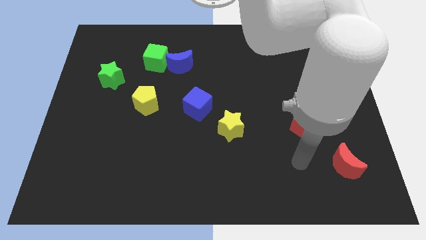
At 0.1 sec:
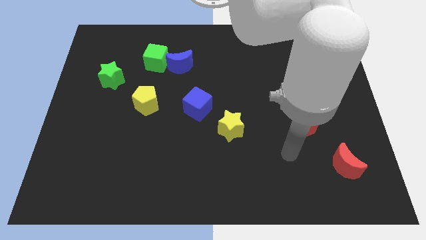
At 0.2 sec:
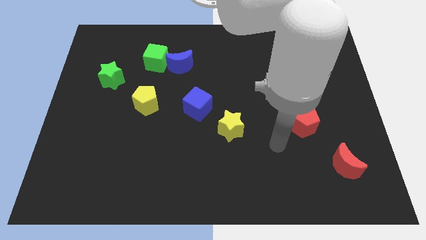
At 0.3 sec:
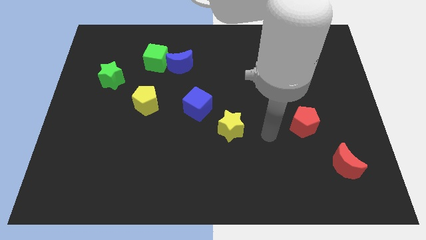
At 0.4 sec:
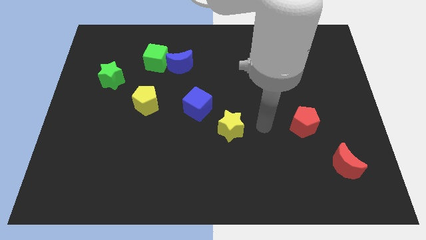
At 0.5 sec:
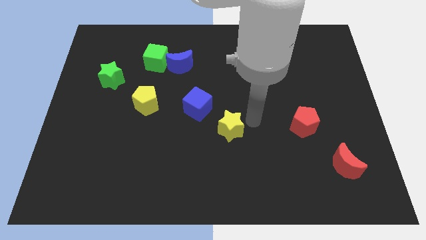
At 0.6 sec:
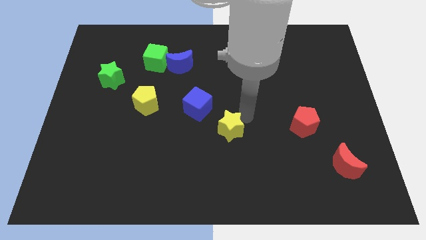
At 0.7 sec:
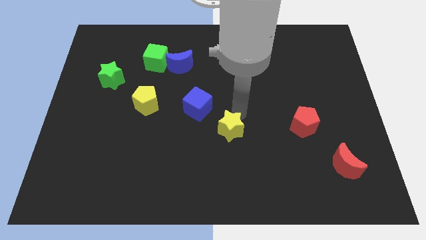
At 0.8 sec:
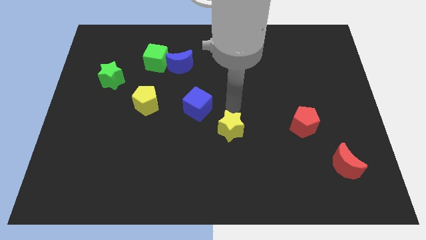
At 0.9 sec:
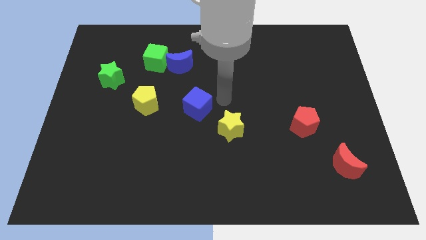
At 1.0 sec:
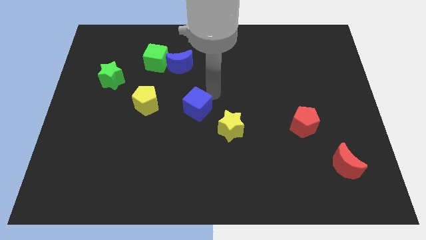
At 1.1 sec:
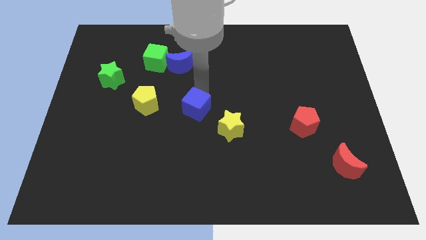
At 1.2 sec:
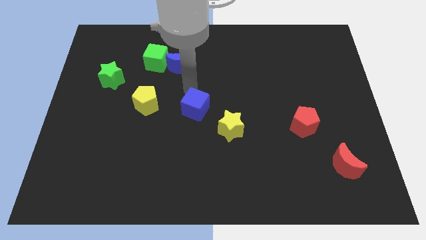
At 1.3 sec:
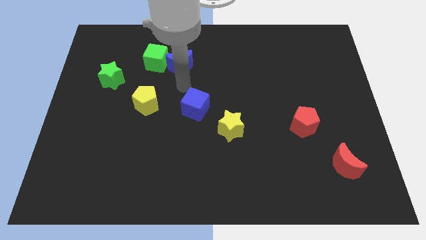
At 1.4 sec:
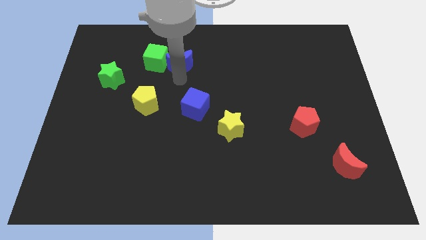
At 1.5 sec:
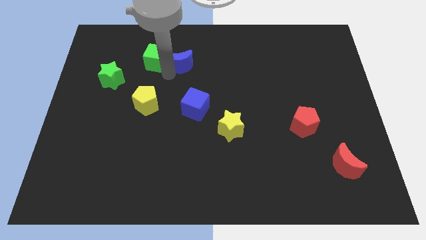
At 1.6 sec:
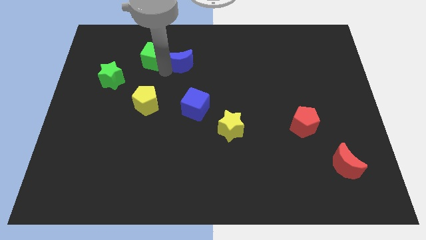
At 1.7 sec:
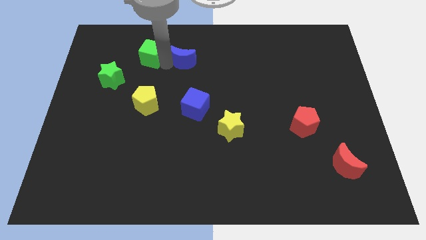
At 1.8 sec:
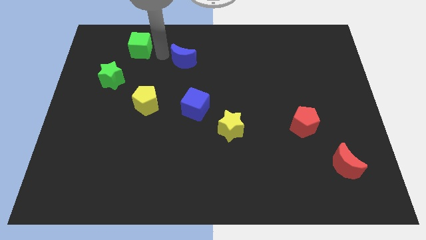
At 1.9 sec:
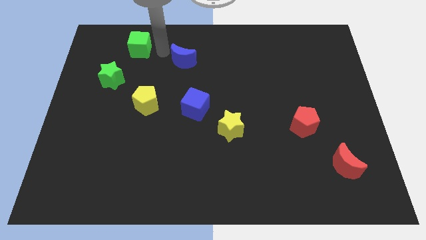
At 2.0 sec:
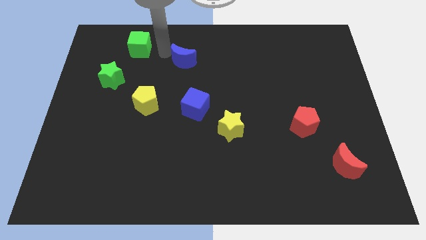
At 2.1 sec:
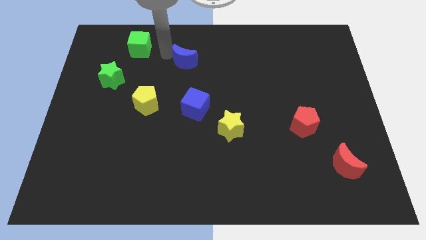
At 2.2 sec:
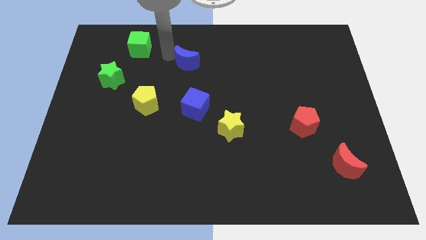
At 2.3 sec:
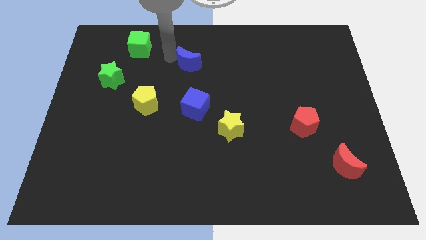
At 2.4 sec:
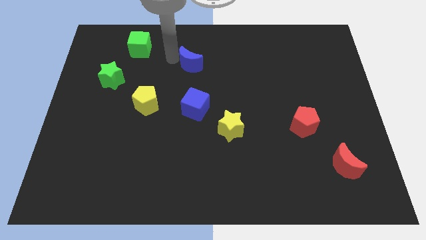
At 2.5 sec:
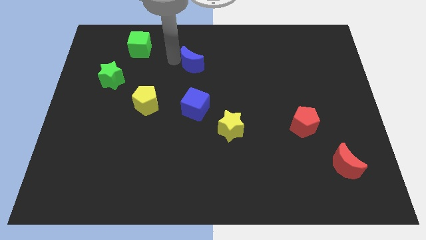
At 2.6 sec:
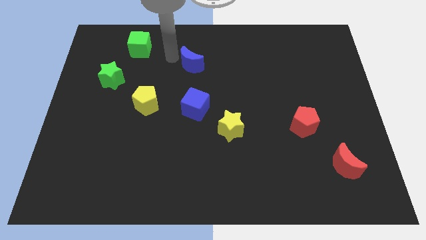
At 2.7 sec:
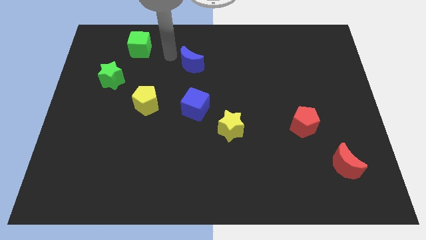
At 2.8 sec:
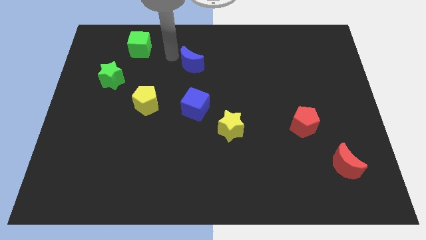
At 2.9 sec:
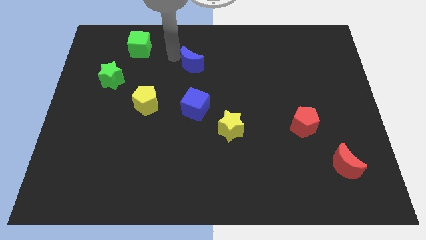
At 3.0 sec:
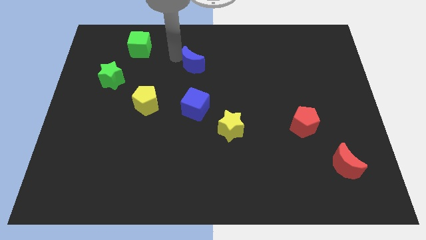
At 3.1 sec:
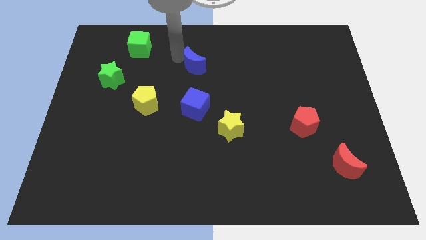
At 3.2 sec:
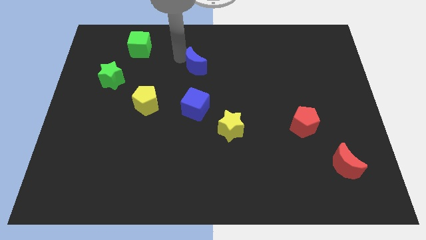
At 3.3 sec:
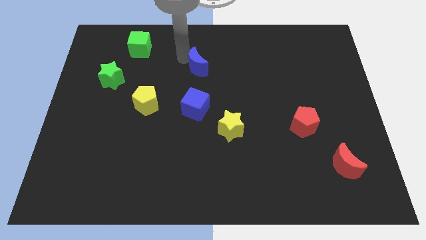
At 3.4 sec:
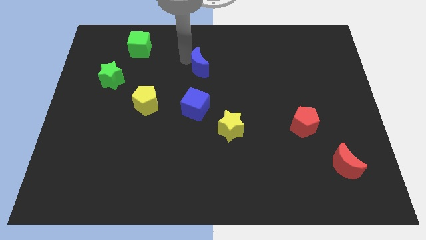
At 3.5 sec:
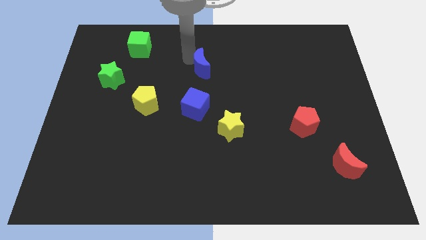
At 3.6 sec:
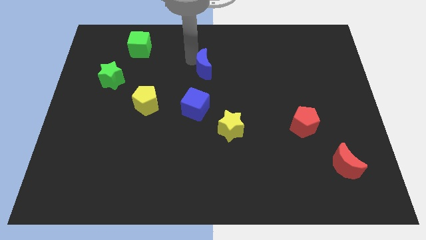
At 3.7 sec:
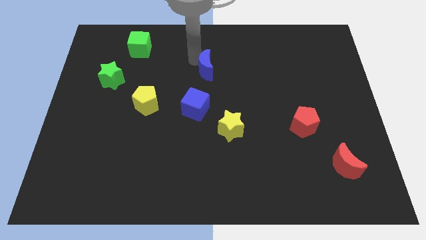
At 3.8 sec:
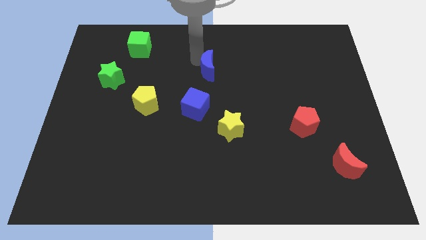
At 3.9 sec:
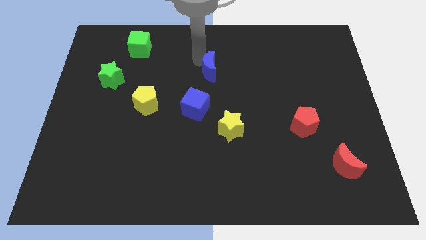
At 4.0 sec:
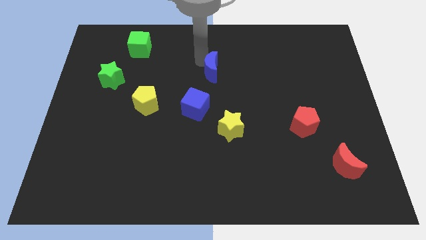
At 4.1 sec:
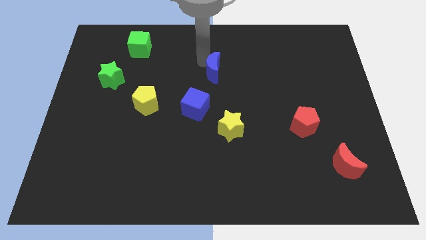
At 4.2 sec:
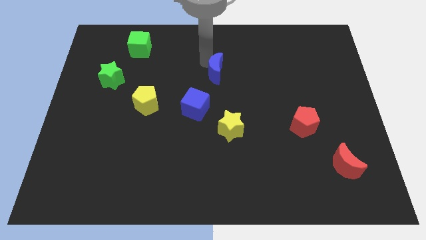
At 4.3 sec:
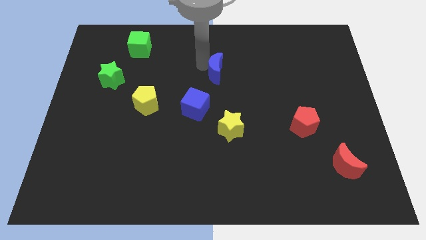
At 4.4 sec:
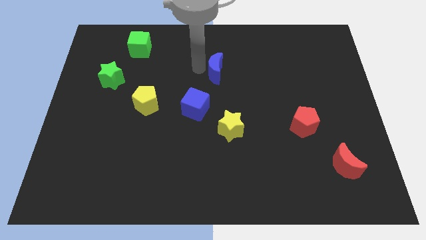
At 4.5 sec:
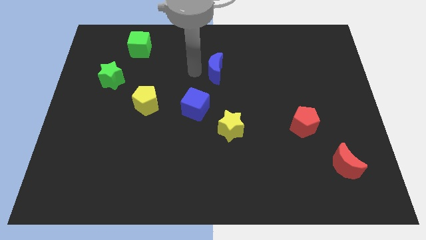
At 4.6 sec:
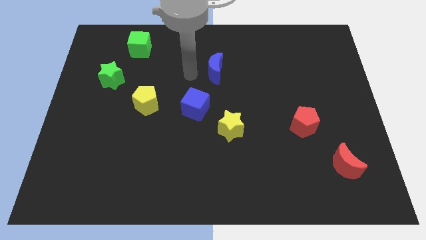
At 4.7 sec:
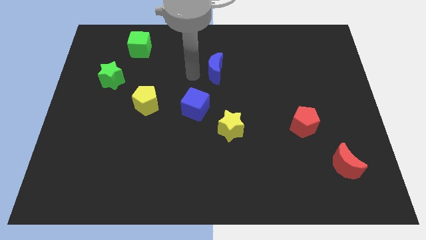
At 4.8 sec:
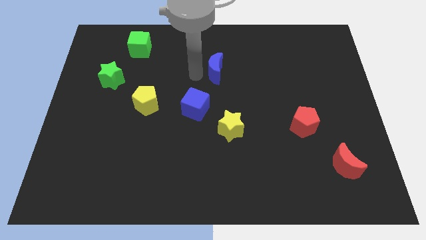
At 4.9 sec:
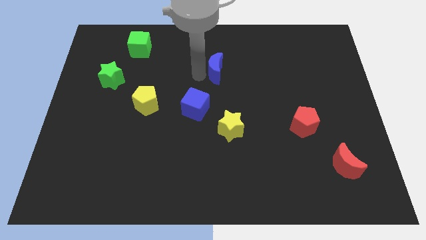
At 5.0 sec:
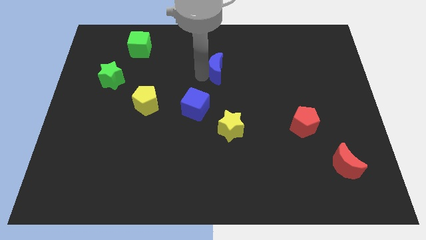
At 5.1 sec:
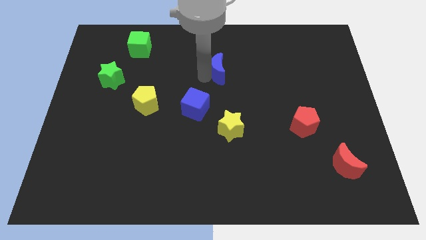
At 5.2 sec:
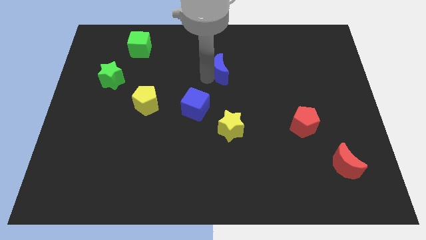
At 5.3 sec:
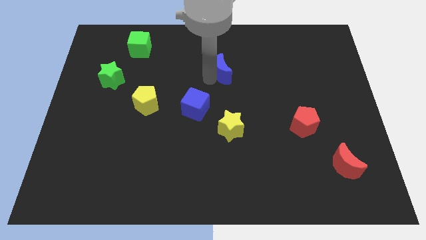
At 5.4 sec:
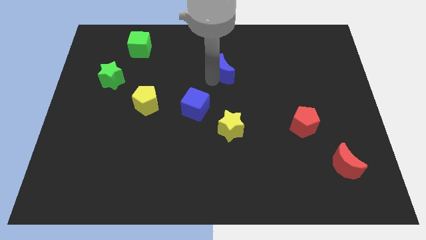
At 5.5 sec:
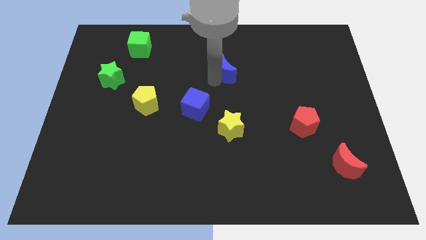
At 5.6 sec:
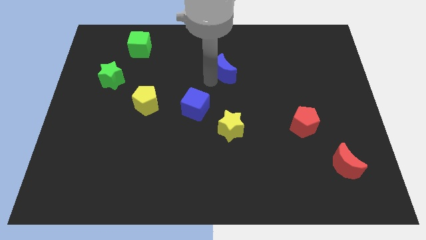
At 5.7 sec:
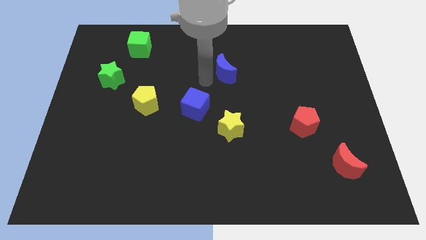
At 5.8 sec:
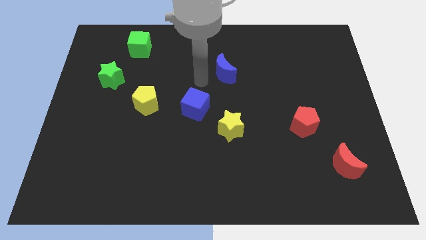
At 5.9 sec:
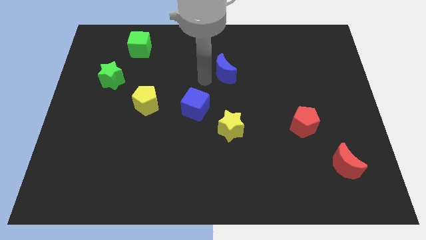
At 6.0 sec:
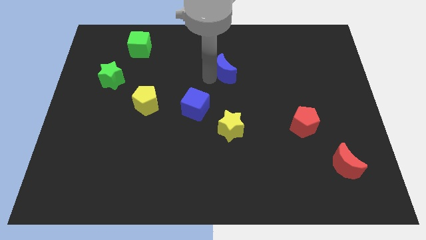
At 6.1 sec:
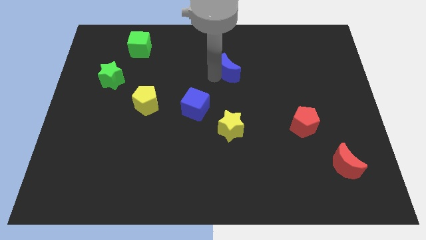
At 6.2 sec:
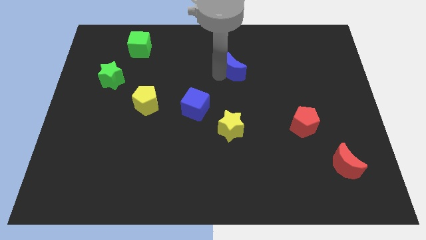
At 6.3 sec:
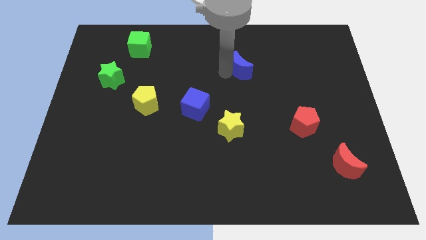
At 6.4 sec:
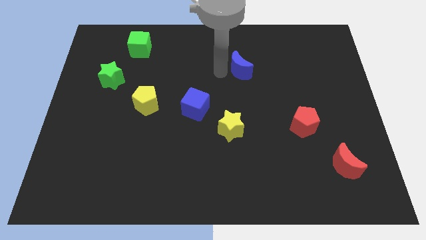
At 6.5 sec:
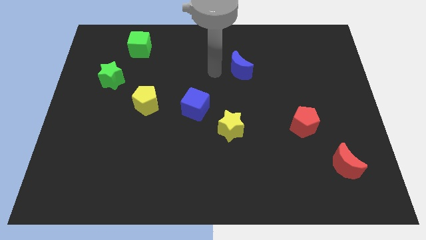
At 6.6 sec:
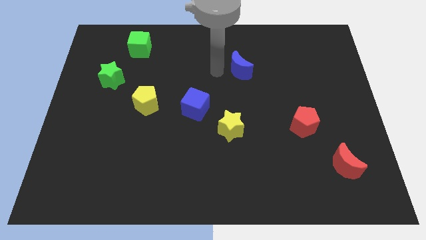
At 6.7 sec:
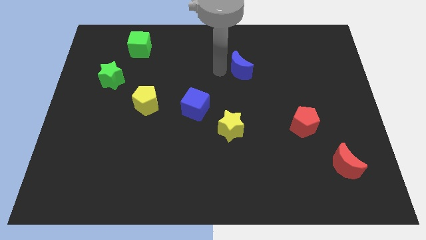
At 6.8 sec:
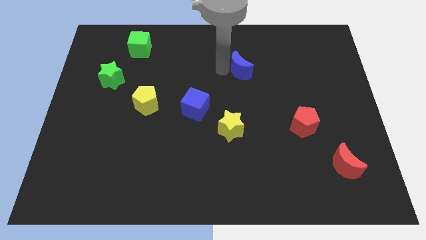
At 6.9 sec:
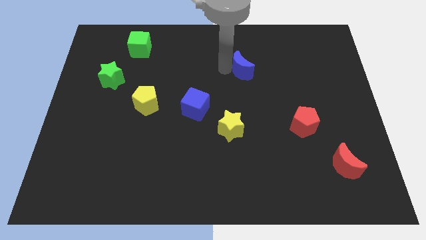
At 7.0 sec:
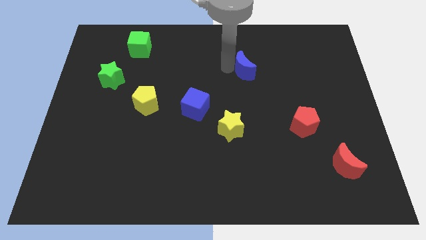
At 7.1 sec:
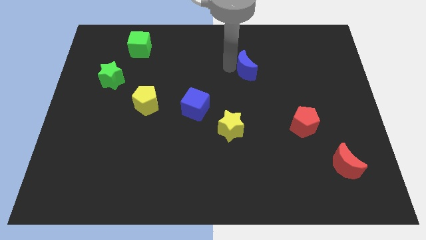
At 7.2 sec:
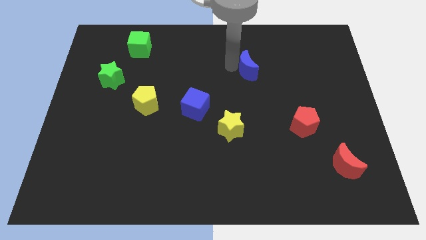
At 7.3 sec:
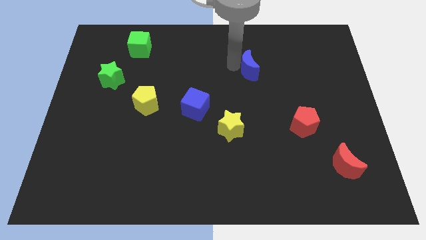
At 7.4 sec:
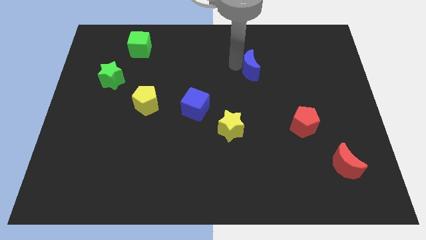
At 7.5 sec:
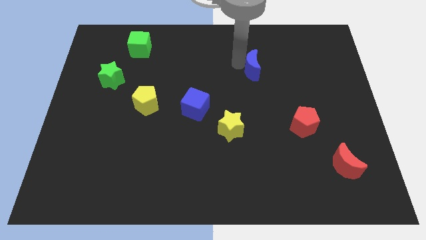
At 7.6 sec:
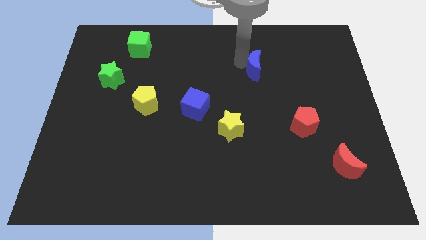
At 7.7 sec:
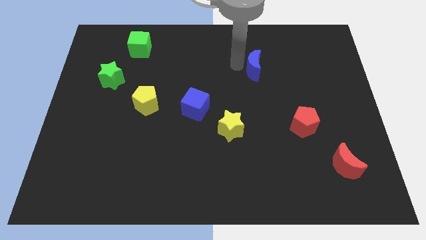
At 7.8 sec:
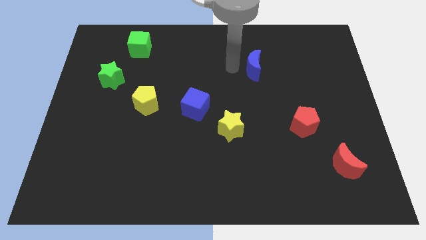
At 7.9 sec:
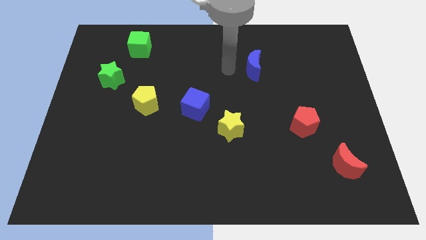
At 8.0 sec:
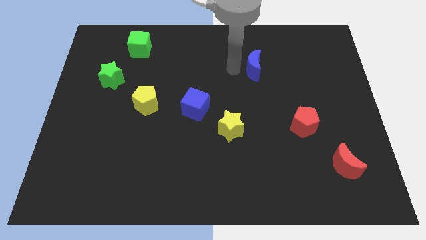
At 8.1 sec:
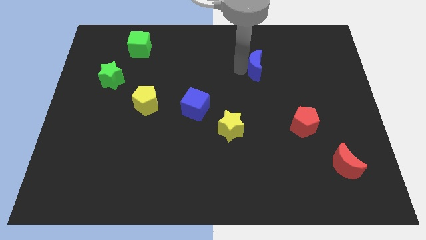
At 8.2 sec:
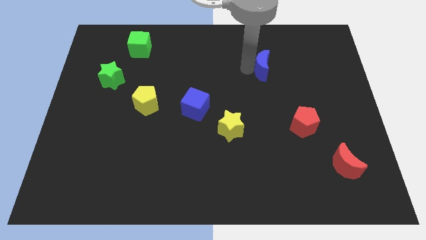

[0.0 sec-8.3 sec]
move the blue moon right
